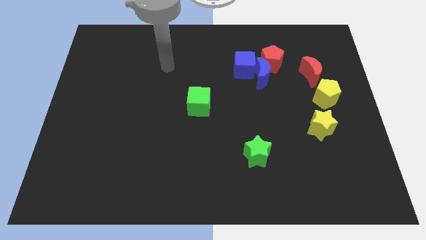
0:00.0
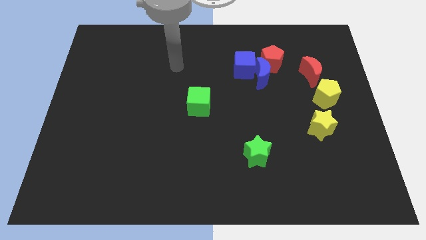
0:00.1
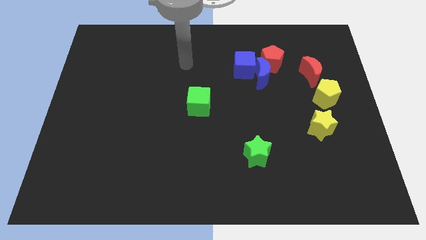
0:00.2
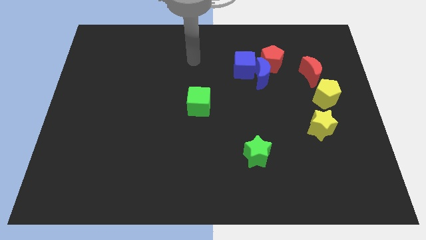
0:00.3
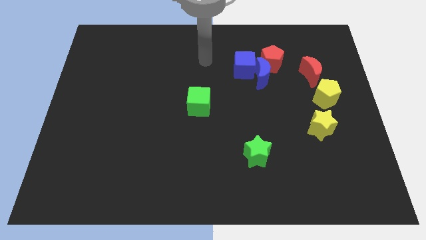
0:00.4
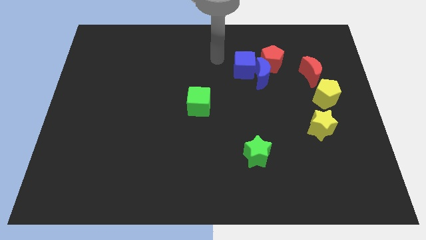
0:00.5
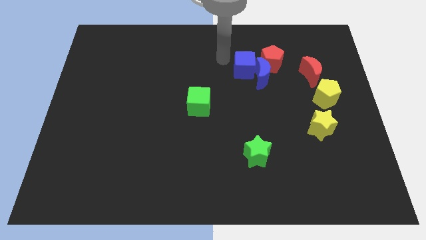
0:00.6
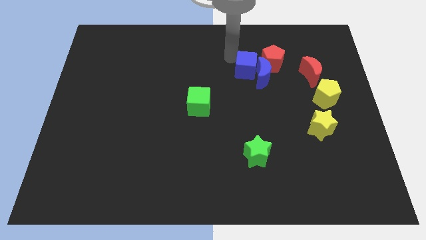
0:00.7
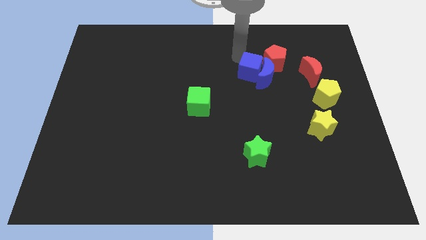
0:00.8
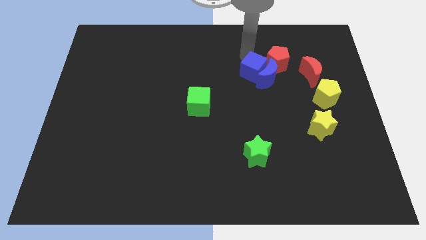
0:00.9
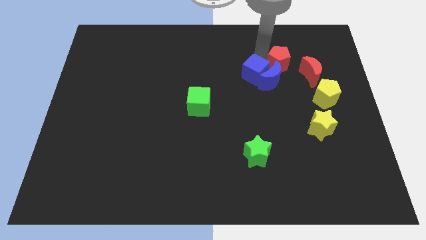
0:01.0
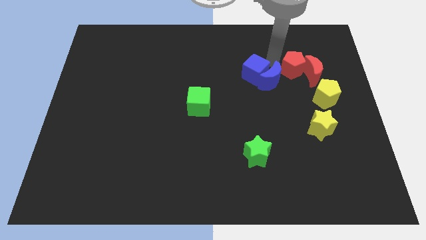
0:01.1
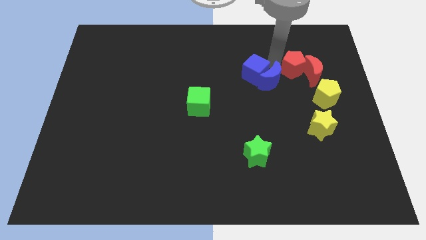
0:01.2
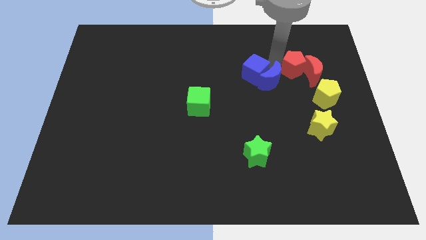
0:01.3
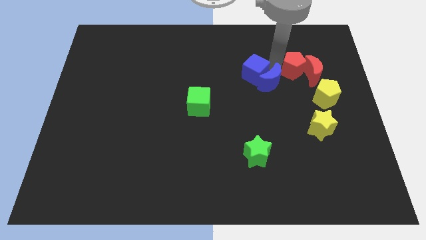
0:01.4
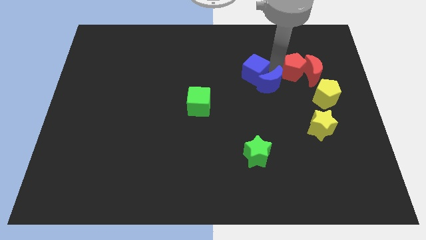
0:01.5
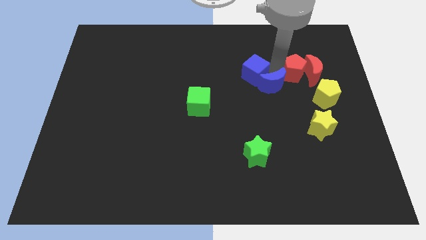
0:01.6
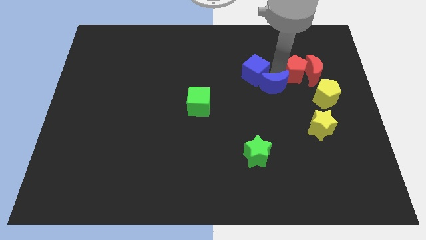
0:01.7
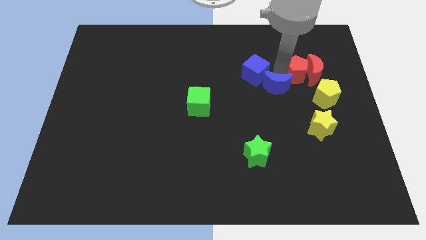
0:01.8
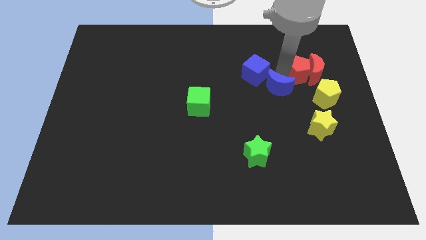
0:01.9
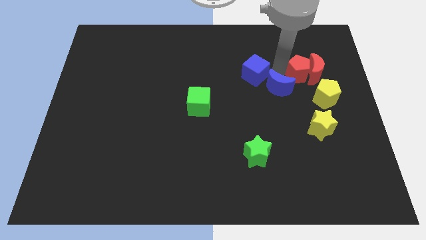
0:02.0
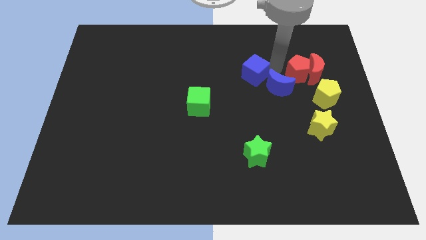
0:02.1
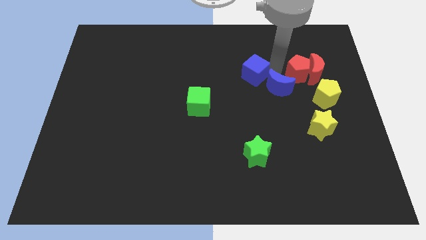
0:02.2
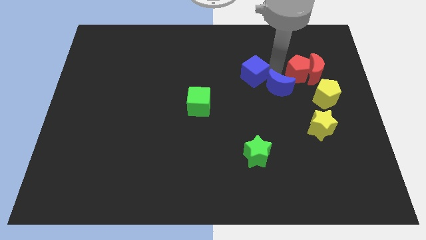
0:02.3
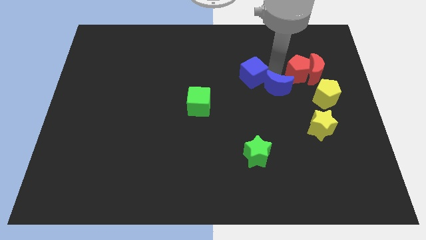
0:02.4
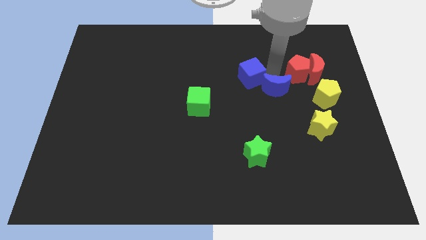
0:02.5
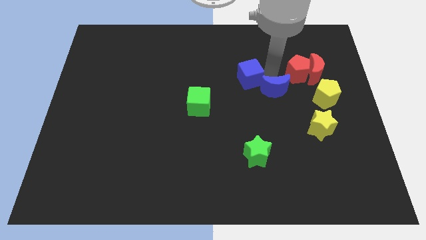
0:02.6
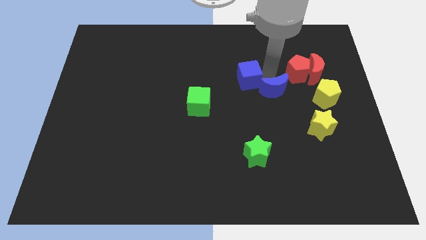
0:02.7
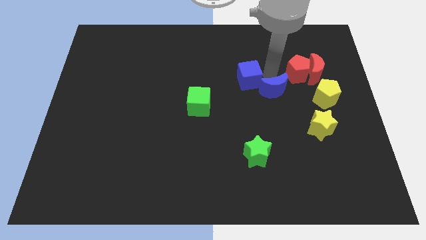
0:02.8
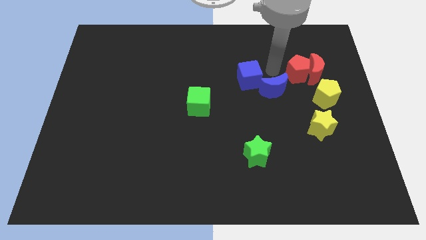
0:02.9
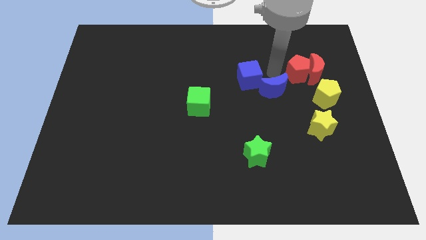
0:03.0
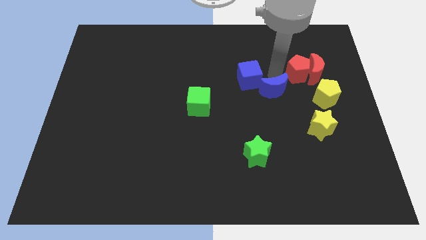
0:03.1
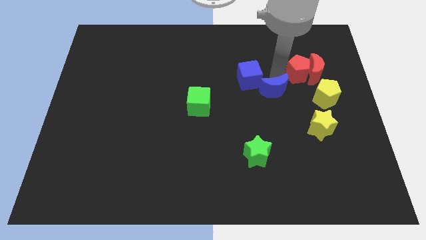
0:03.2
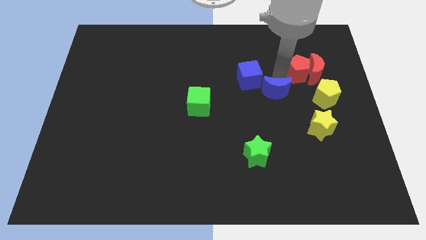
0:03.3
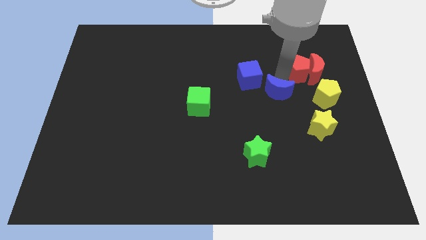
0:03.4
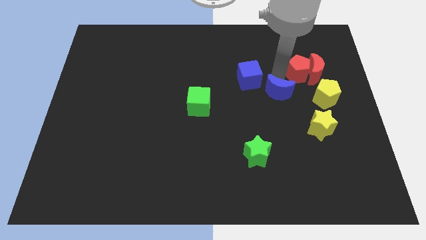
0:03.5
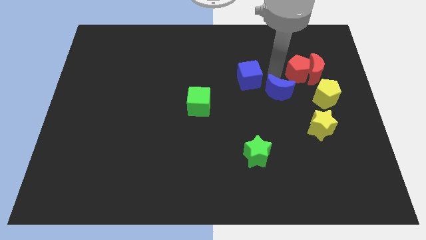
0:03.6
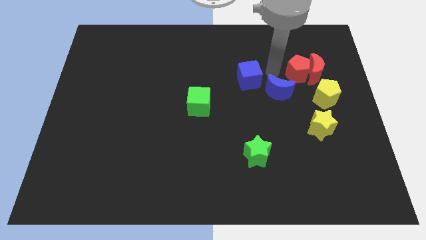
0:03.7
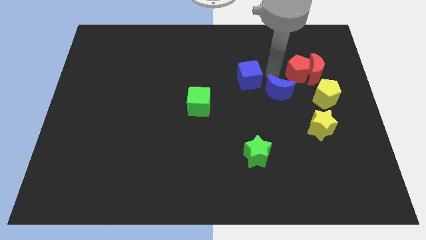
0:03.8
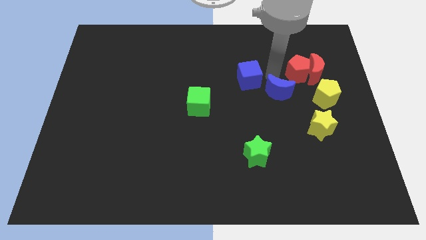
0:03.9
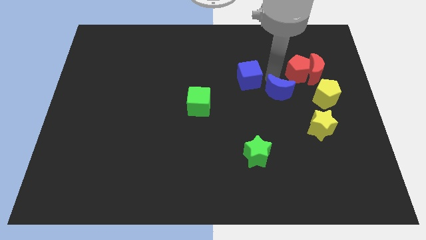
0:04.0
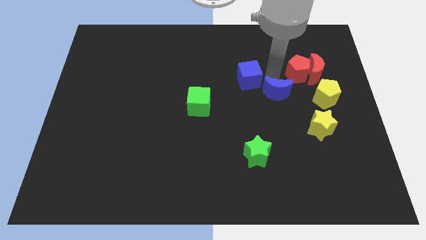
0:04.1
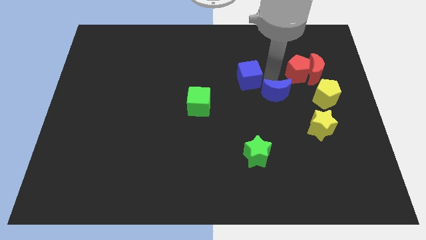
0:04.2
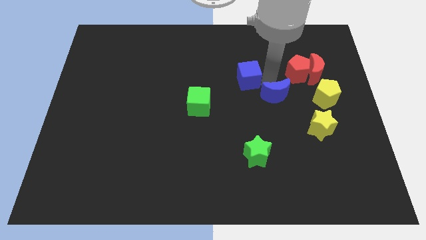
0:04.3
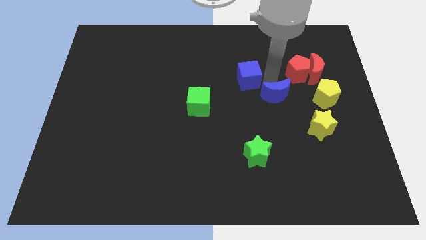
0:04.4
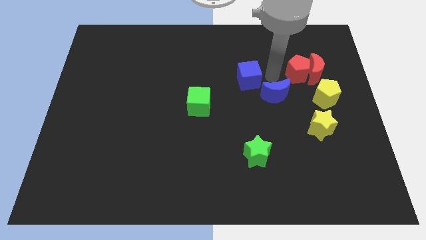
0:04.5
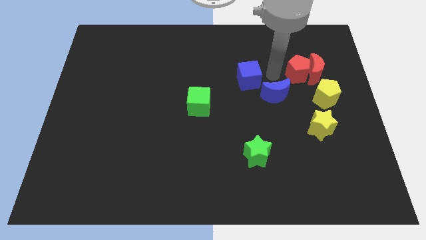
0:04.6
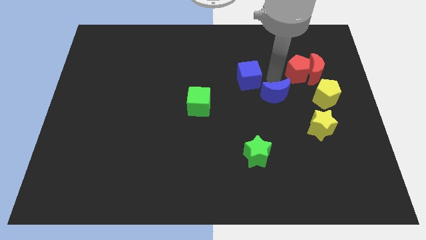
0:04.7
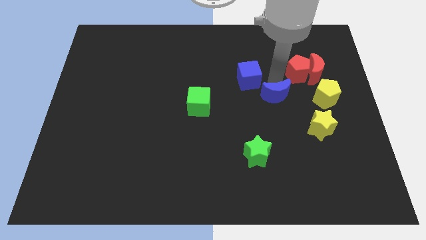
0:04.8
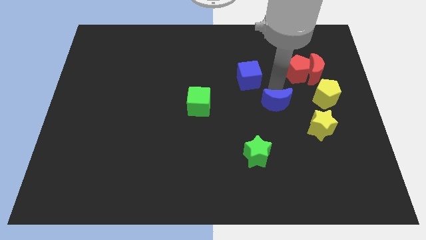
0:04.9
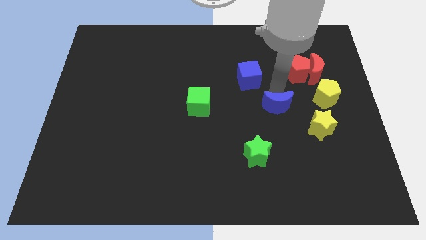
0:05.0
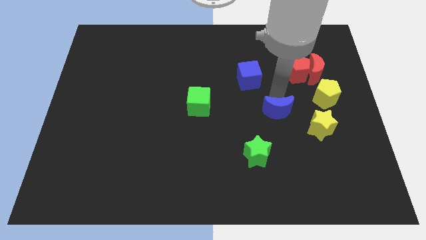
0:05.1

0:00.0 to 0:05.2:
move the blue moon away from the blue cube and red pentagon

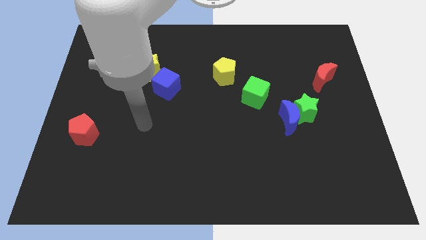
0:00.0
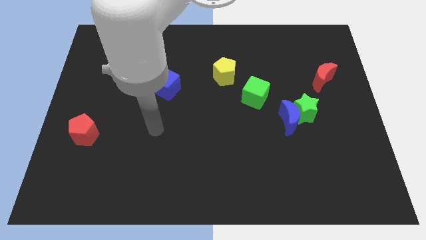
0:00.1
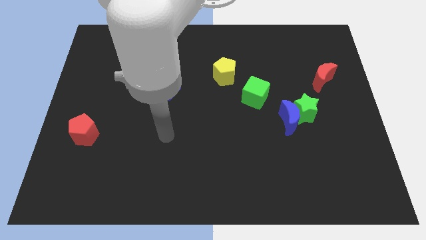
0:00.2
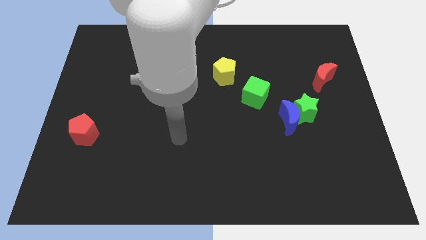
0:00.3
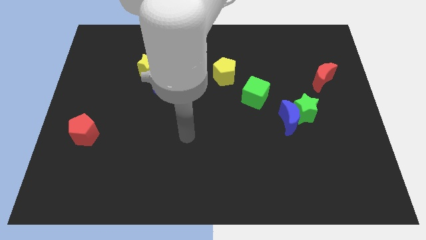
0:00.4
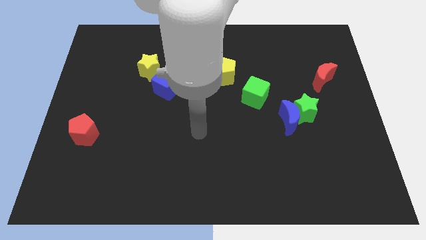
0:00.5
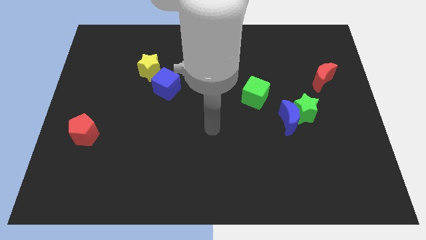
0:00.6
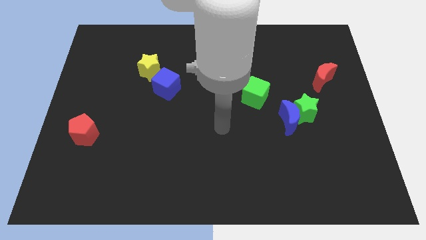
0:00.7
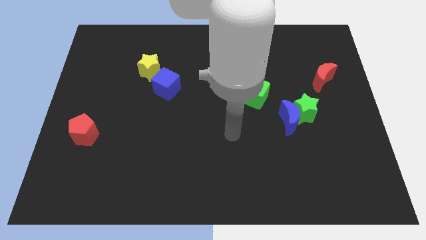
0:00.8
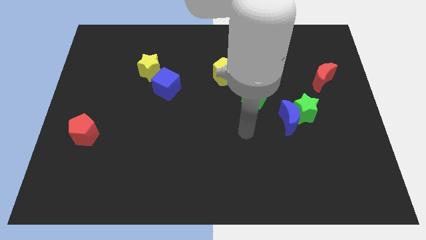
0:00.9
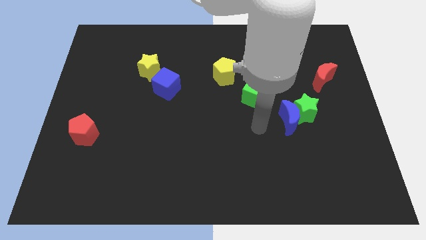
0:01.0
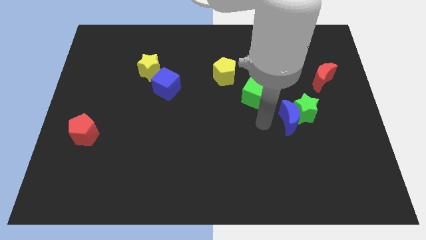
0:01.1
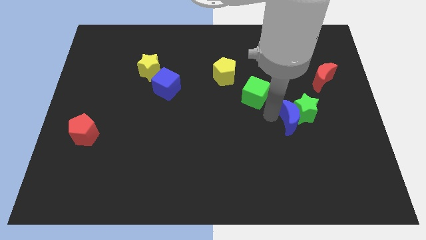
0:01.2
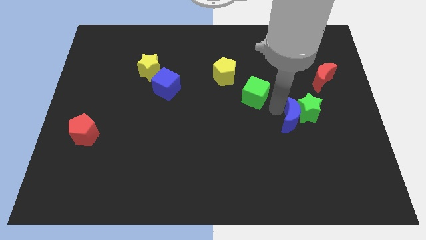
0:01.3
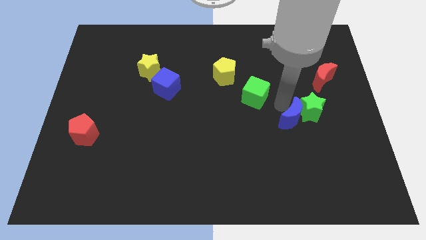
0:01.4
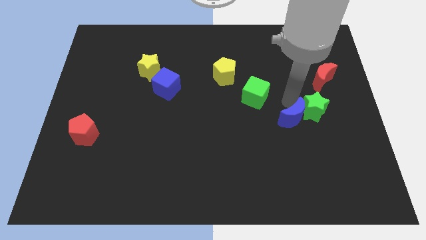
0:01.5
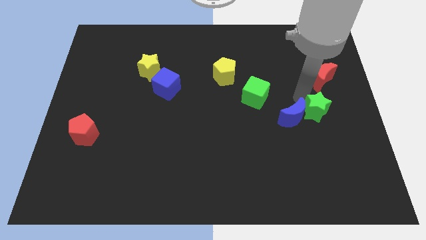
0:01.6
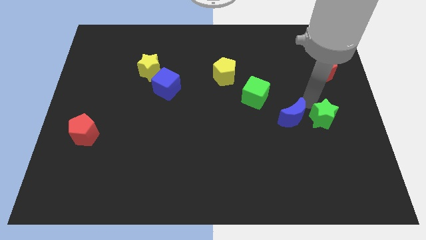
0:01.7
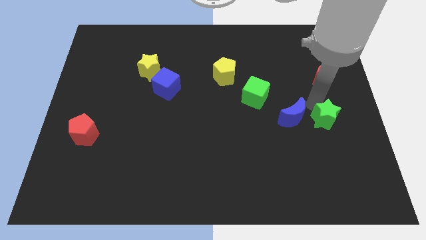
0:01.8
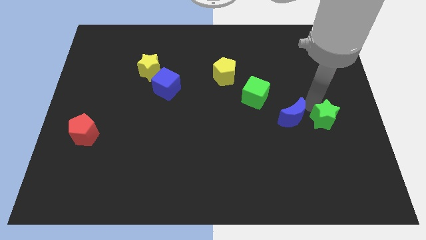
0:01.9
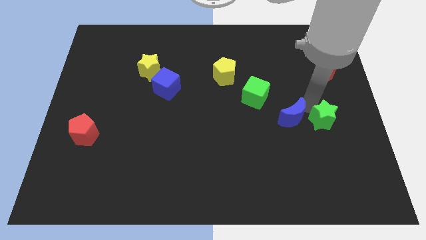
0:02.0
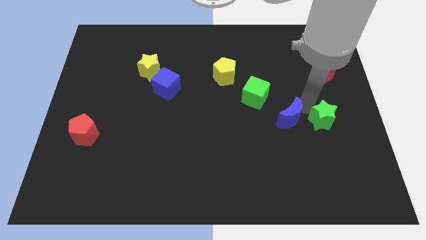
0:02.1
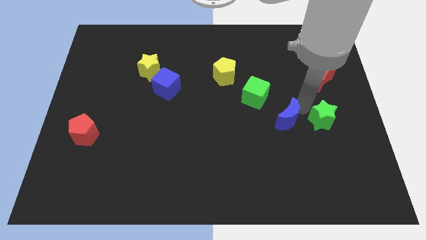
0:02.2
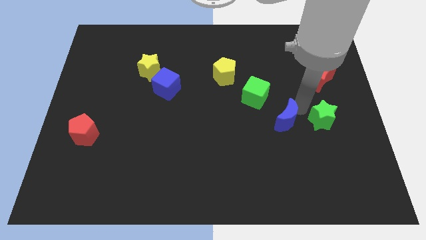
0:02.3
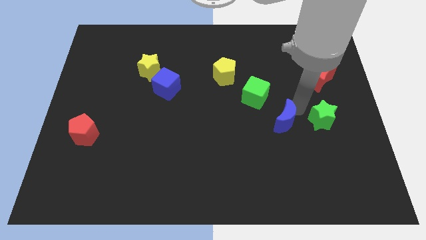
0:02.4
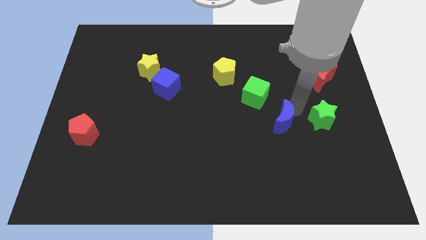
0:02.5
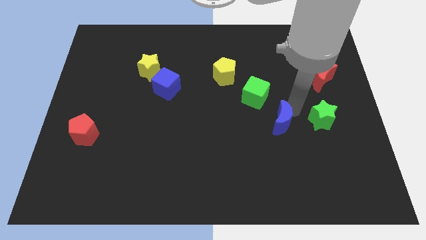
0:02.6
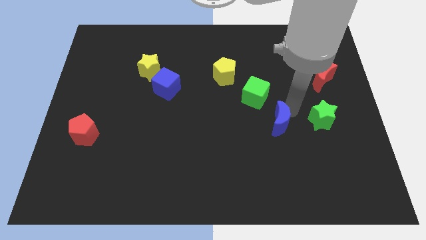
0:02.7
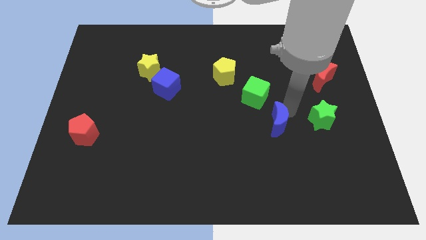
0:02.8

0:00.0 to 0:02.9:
move the blue moon away from the green star

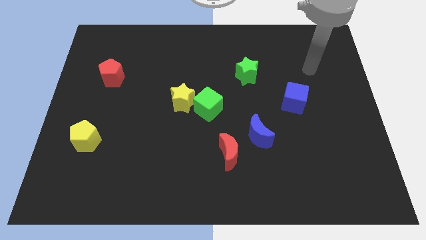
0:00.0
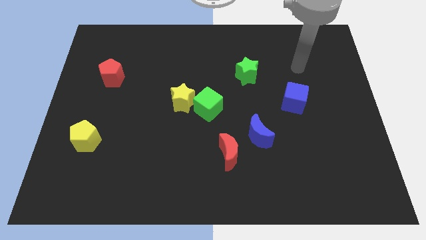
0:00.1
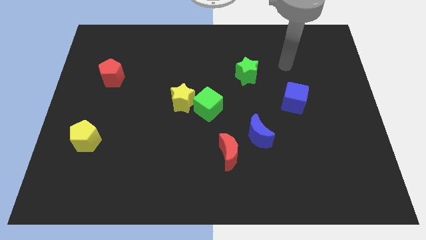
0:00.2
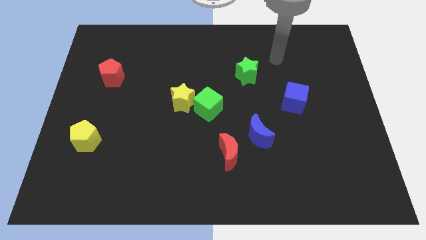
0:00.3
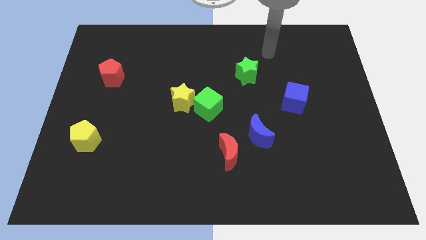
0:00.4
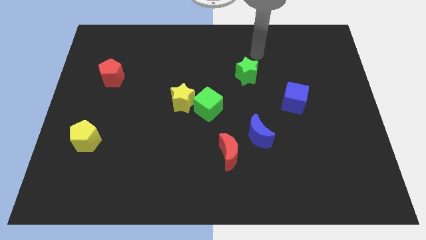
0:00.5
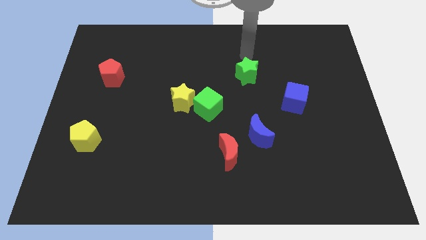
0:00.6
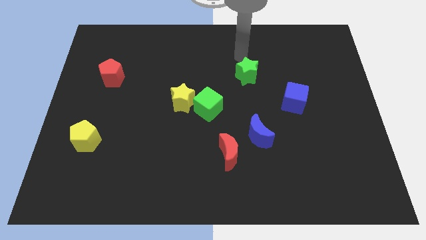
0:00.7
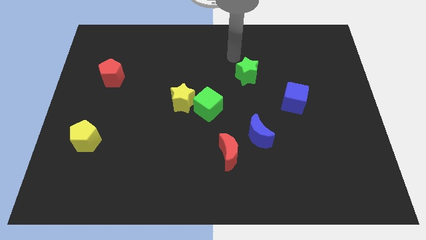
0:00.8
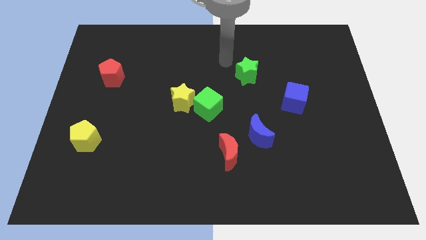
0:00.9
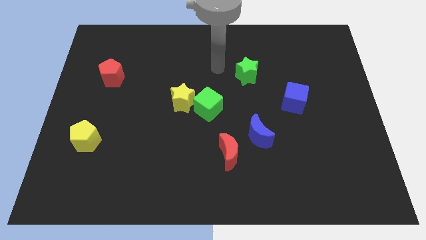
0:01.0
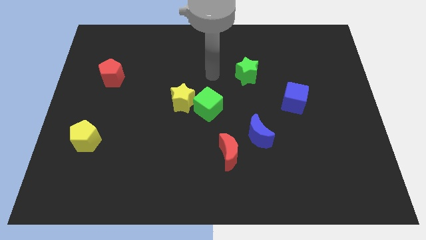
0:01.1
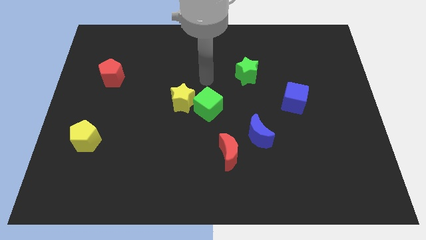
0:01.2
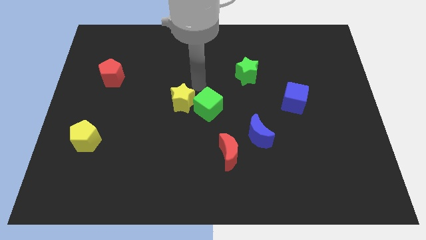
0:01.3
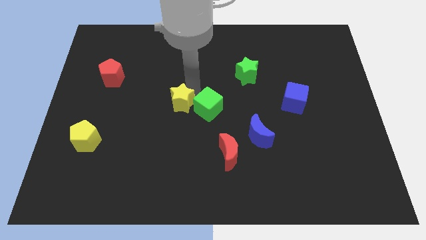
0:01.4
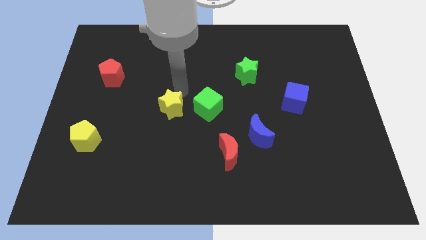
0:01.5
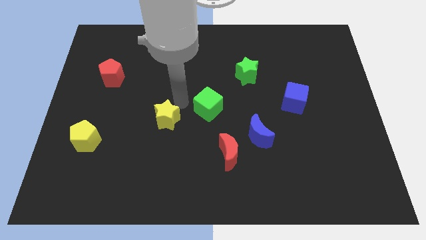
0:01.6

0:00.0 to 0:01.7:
separate the green cube from the yellow star
